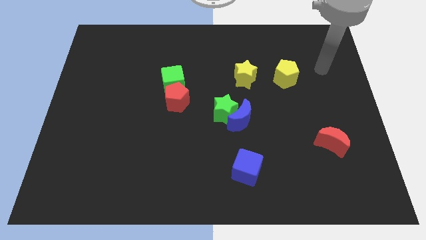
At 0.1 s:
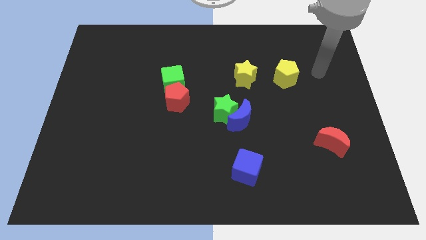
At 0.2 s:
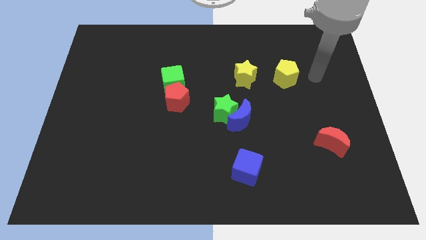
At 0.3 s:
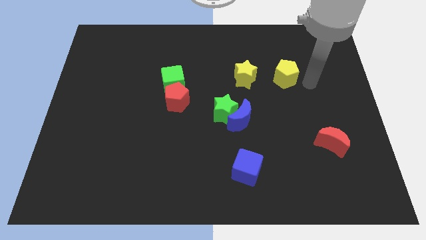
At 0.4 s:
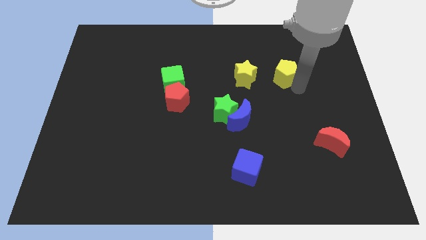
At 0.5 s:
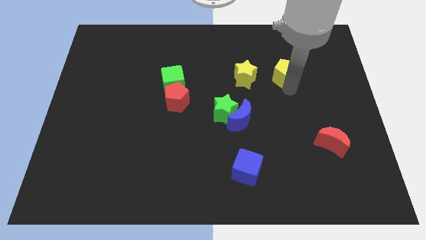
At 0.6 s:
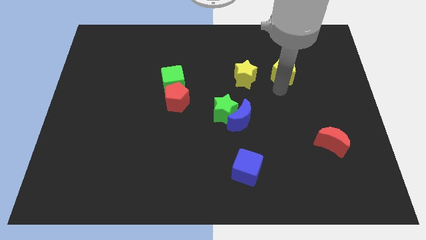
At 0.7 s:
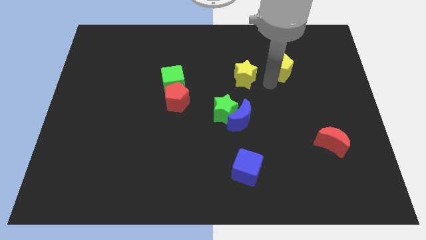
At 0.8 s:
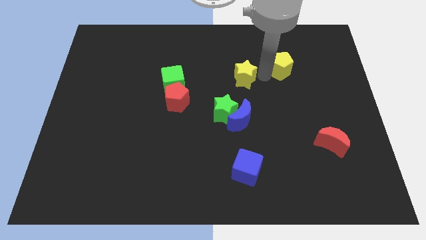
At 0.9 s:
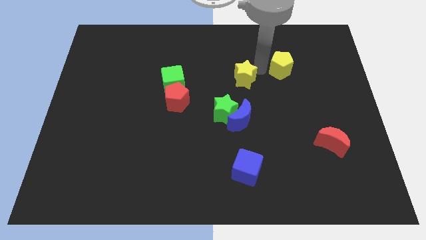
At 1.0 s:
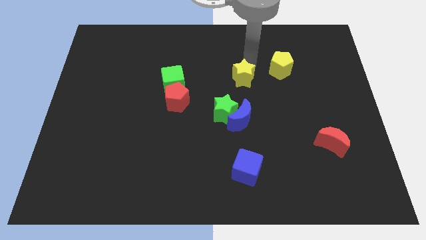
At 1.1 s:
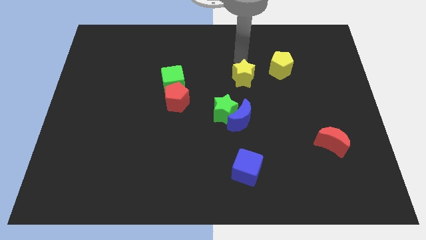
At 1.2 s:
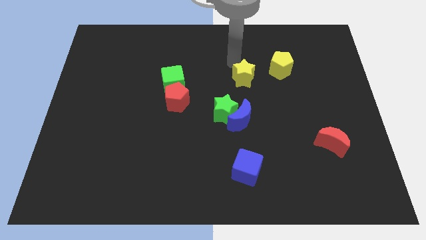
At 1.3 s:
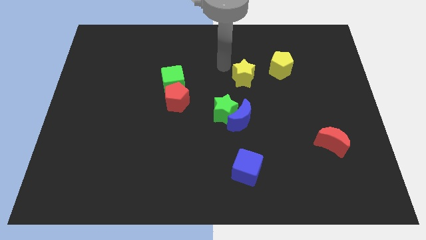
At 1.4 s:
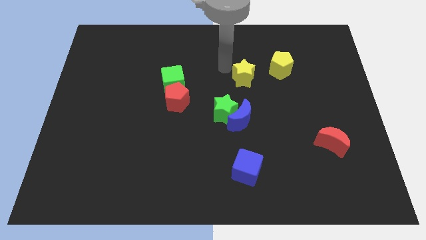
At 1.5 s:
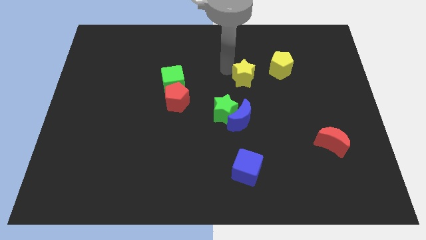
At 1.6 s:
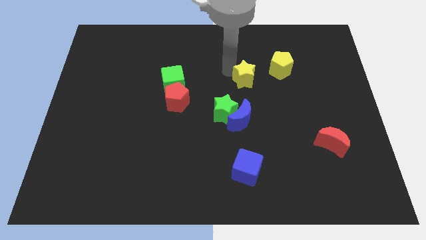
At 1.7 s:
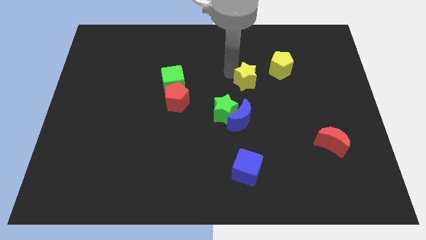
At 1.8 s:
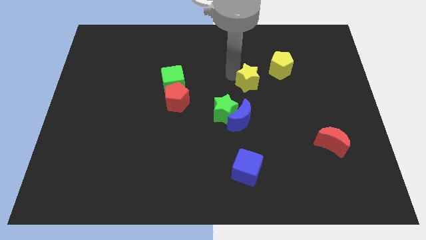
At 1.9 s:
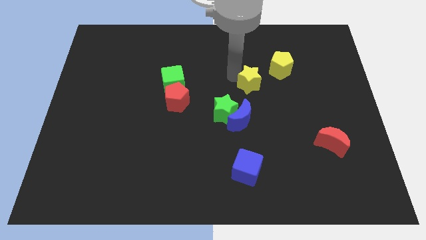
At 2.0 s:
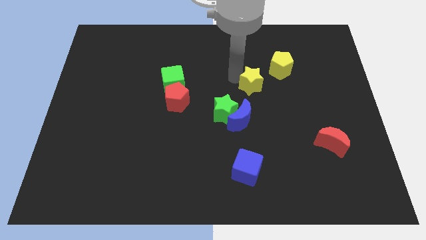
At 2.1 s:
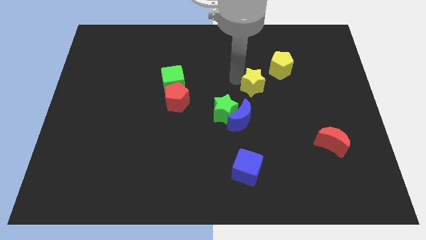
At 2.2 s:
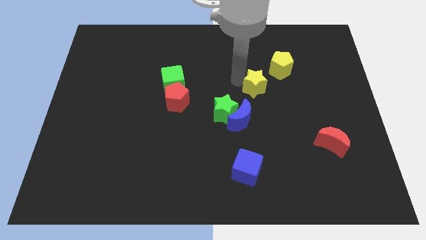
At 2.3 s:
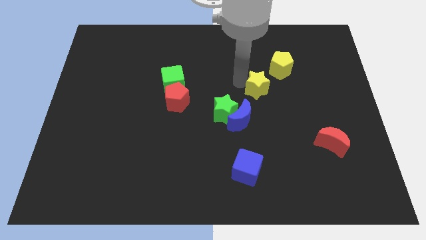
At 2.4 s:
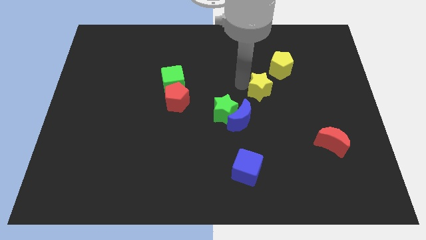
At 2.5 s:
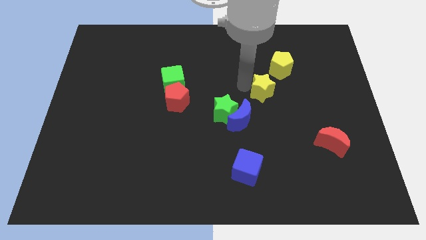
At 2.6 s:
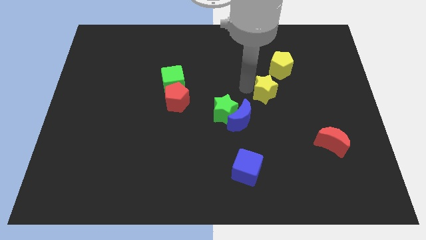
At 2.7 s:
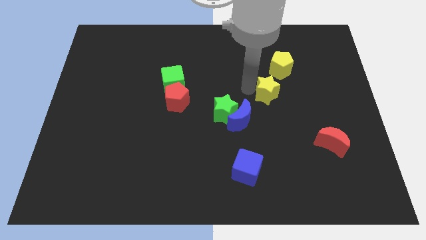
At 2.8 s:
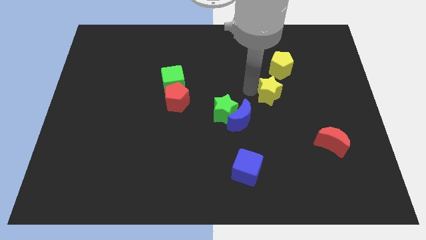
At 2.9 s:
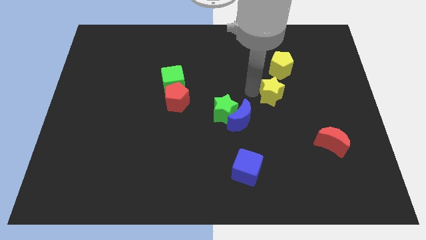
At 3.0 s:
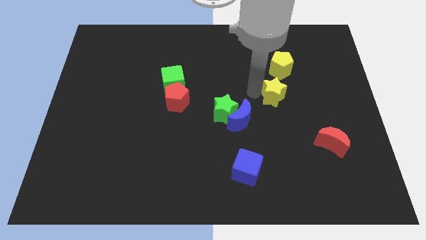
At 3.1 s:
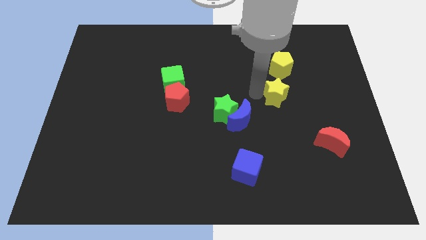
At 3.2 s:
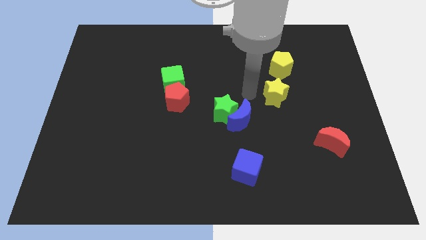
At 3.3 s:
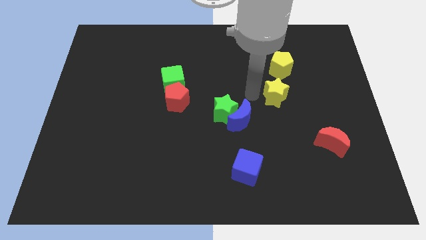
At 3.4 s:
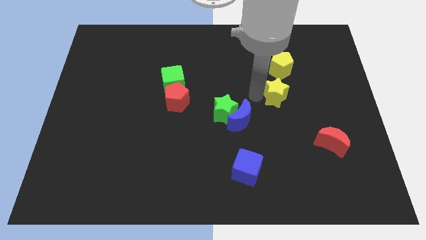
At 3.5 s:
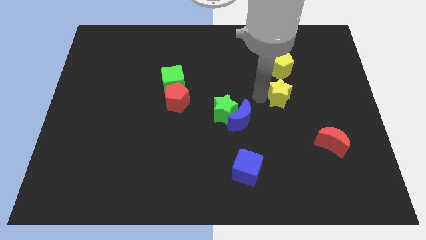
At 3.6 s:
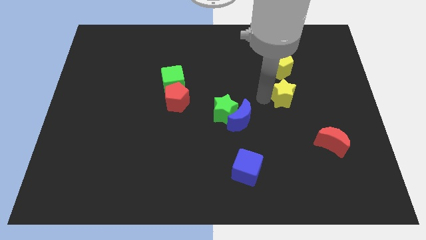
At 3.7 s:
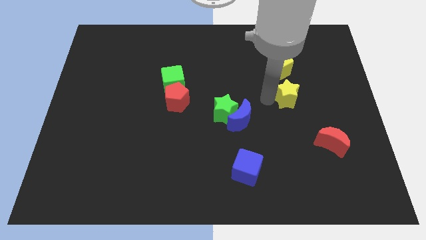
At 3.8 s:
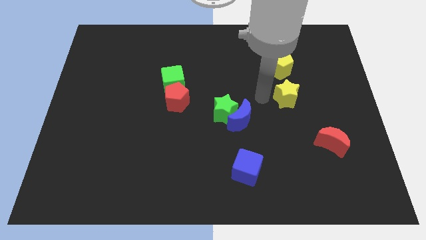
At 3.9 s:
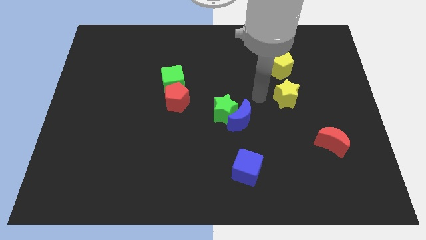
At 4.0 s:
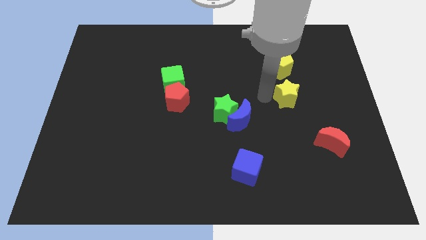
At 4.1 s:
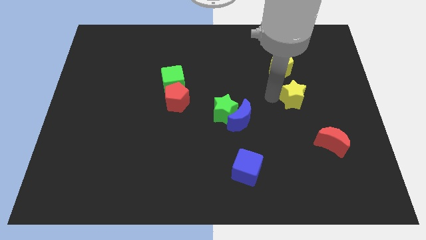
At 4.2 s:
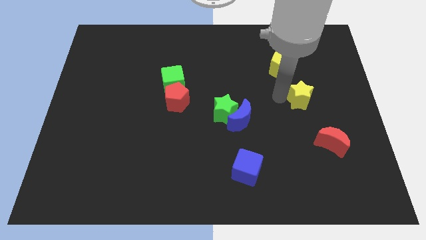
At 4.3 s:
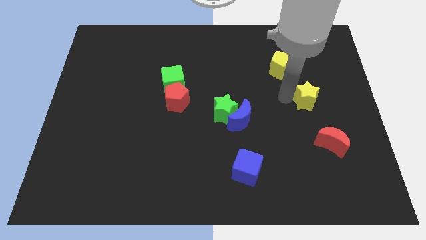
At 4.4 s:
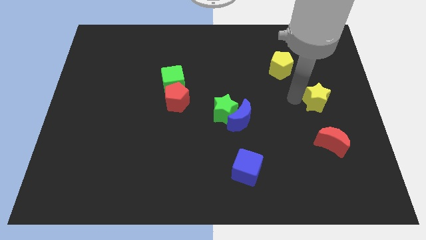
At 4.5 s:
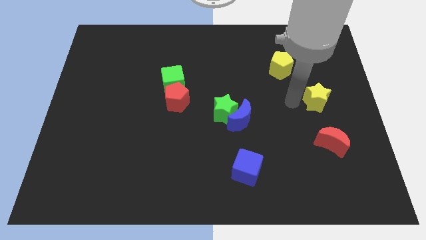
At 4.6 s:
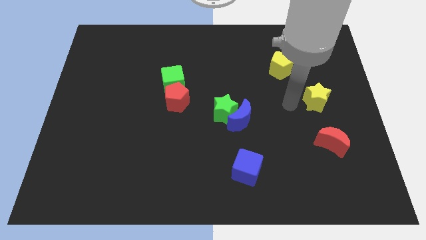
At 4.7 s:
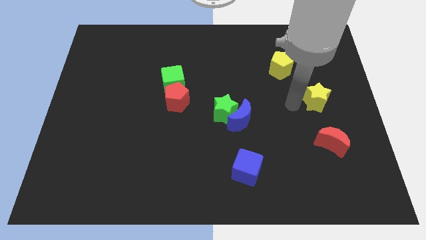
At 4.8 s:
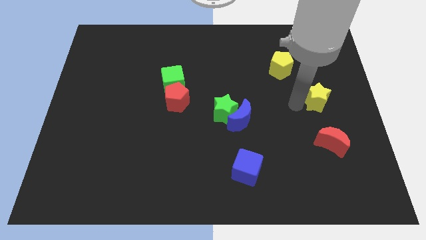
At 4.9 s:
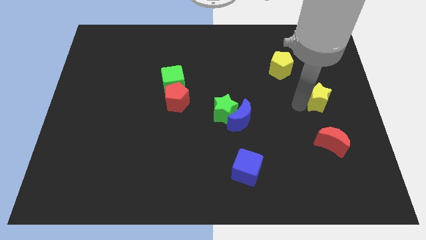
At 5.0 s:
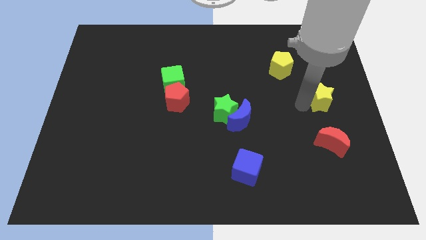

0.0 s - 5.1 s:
push the yellow star to the right side
